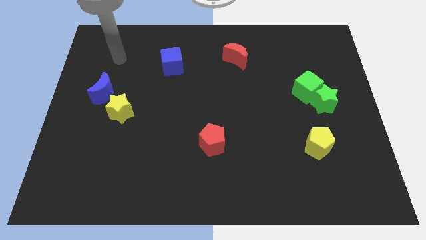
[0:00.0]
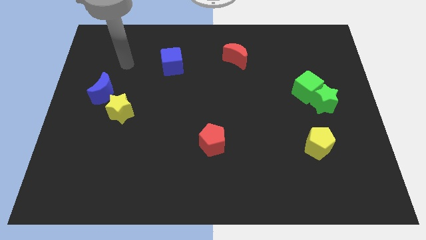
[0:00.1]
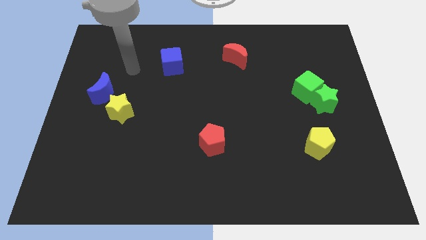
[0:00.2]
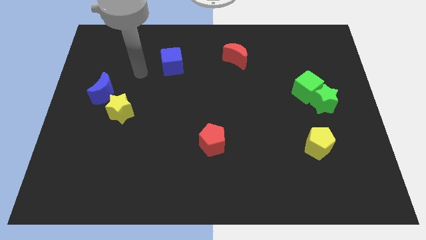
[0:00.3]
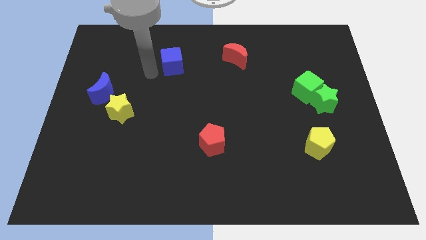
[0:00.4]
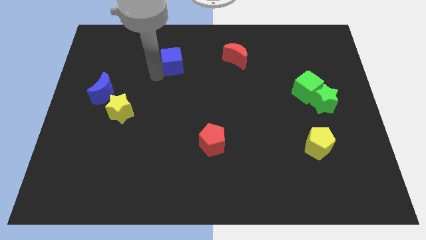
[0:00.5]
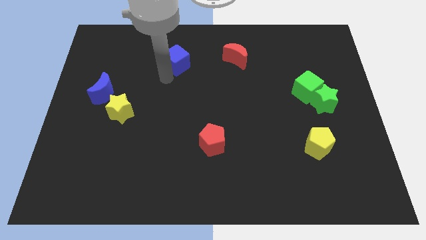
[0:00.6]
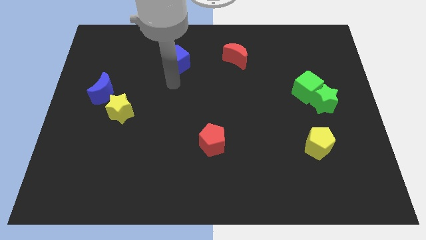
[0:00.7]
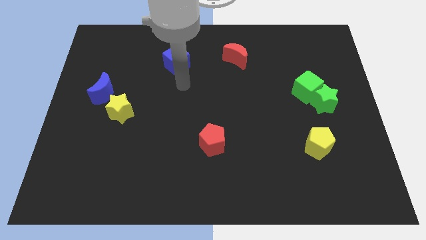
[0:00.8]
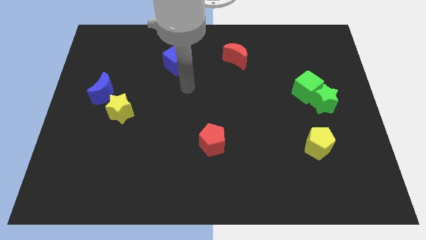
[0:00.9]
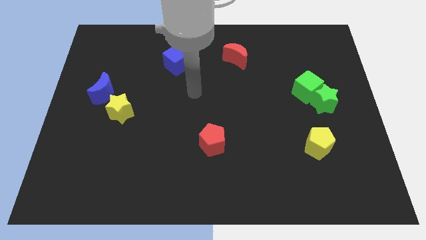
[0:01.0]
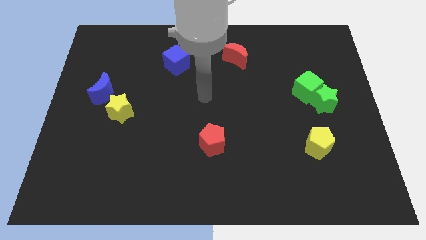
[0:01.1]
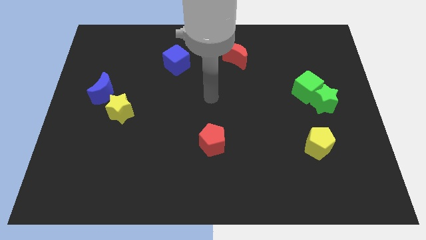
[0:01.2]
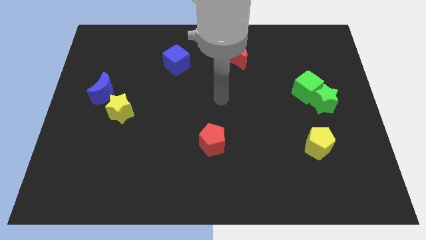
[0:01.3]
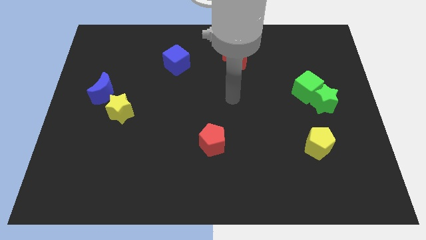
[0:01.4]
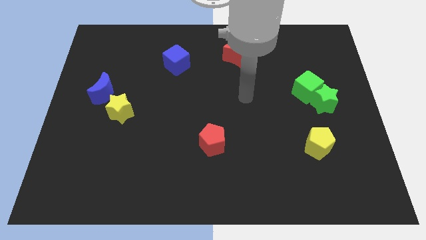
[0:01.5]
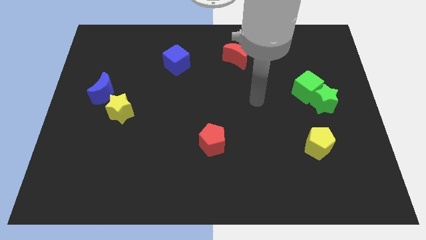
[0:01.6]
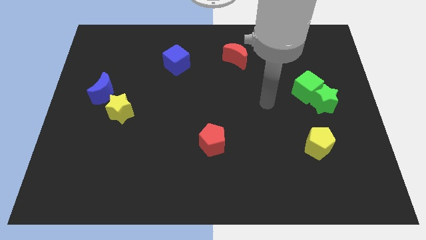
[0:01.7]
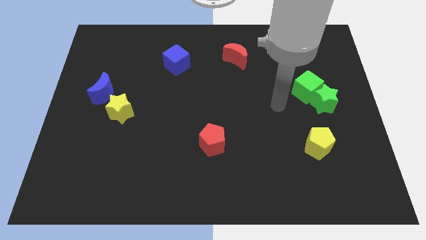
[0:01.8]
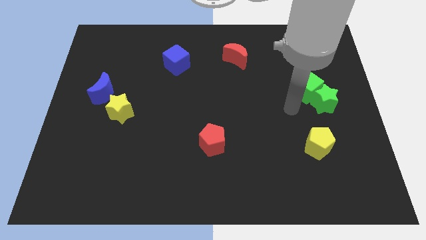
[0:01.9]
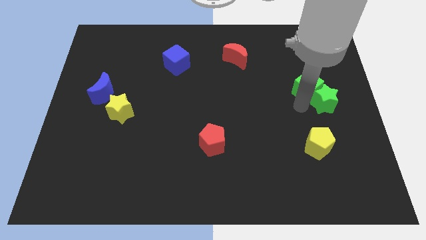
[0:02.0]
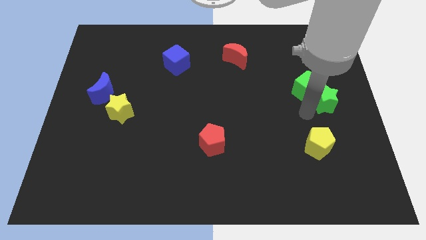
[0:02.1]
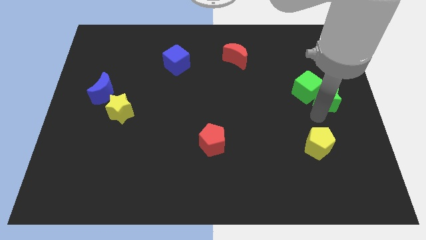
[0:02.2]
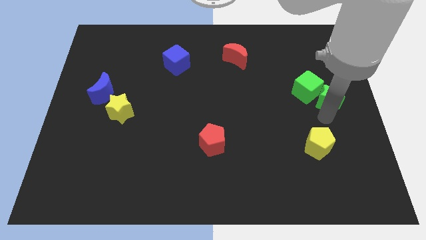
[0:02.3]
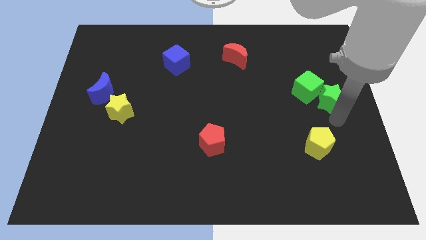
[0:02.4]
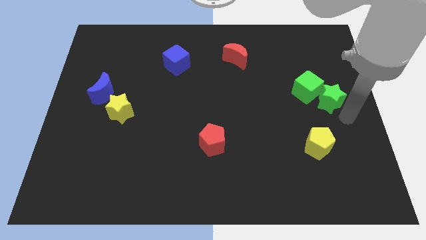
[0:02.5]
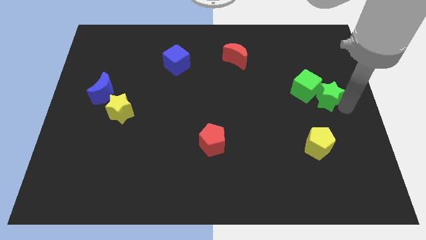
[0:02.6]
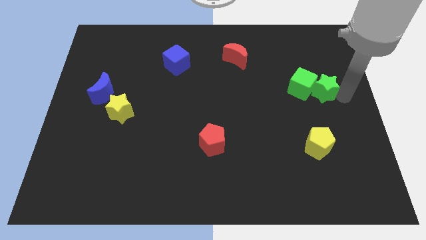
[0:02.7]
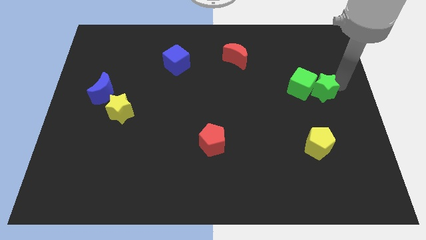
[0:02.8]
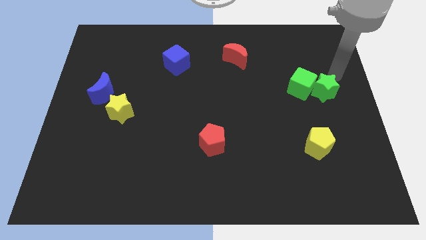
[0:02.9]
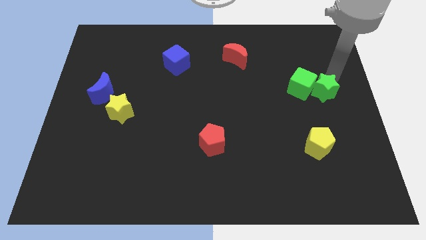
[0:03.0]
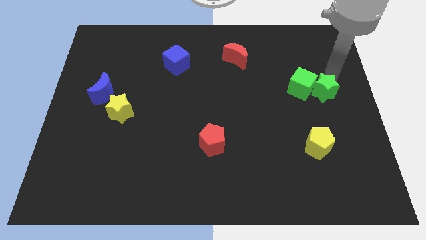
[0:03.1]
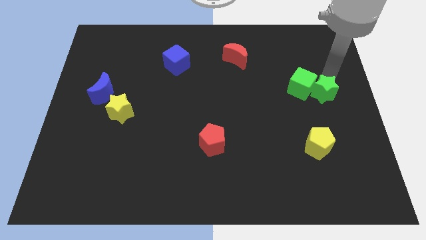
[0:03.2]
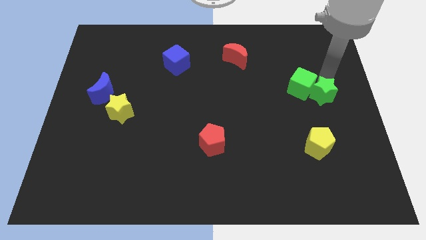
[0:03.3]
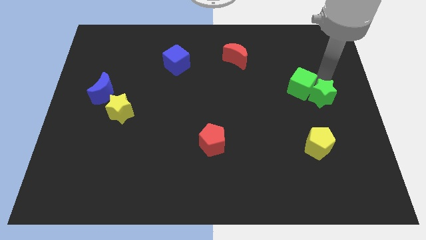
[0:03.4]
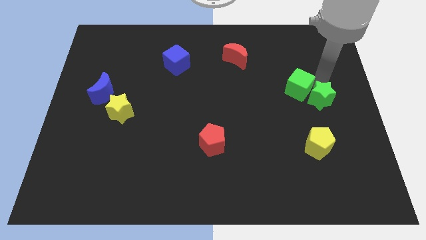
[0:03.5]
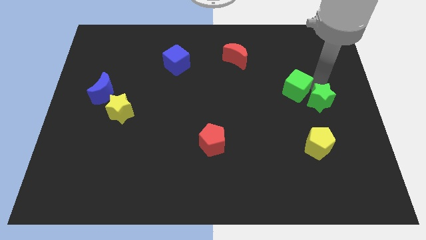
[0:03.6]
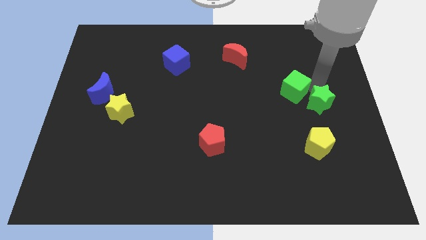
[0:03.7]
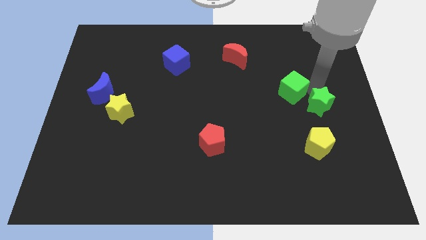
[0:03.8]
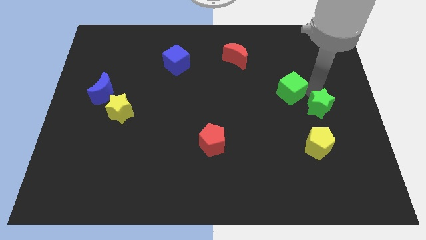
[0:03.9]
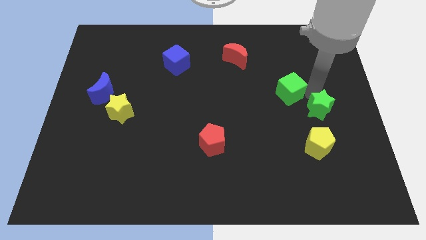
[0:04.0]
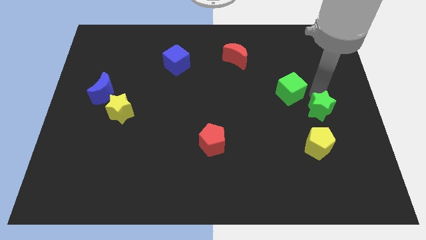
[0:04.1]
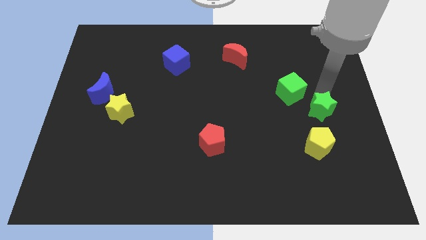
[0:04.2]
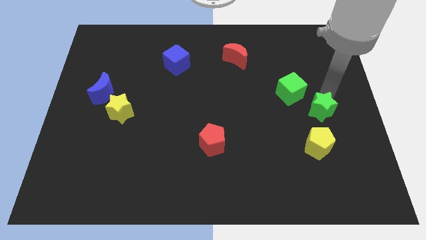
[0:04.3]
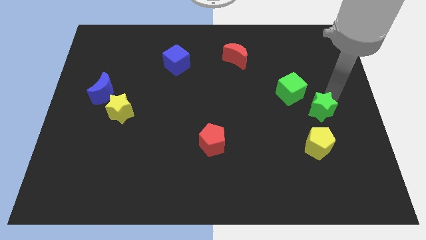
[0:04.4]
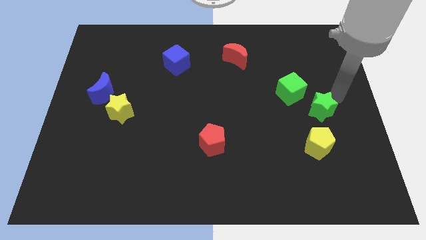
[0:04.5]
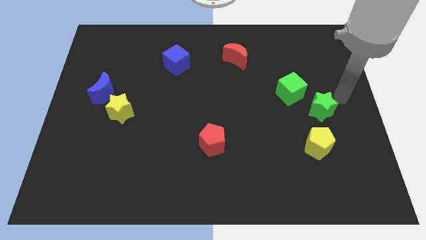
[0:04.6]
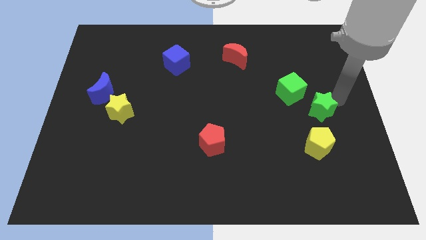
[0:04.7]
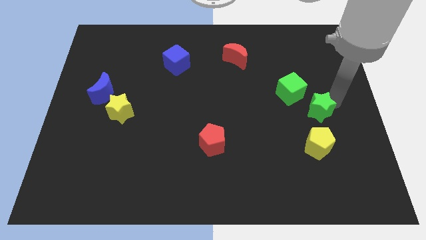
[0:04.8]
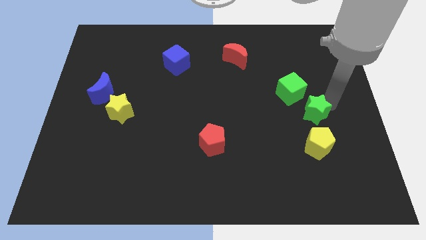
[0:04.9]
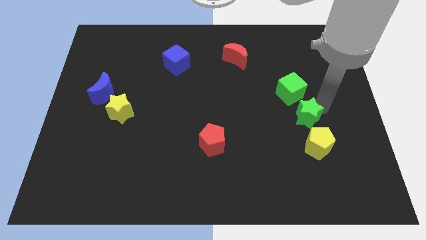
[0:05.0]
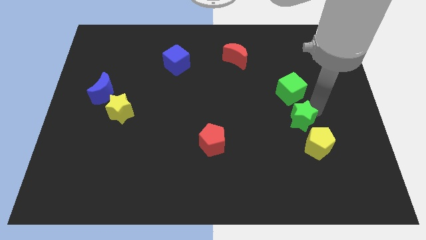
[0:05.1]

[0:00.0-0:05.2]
push the green star down and left somewhat

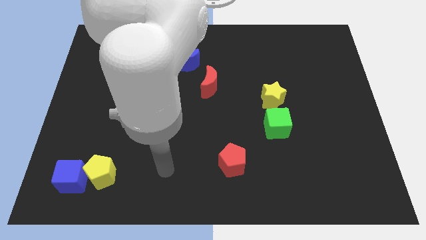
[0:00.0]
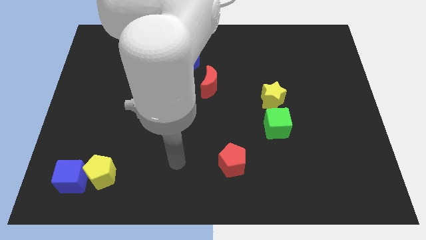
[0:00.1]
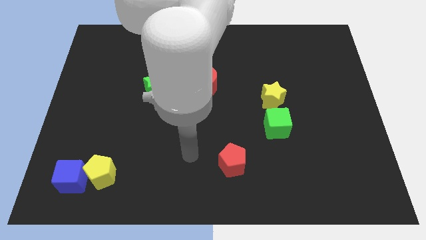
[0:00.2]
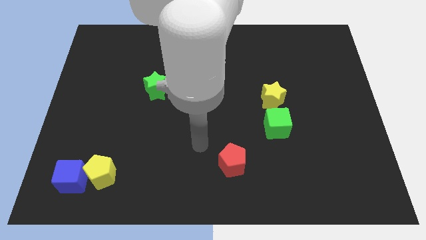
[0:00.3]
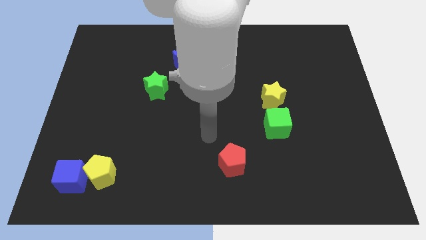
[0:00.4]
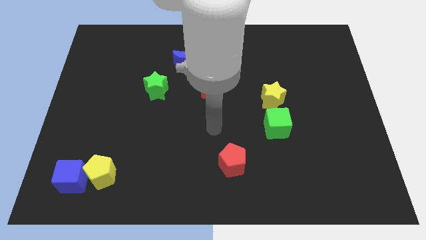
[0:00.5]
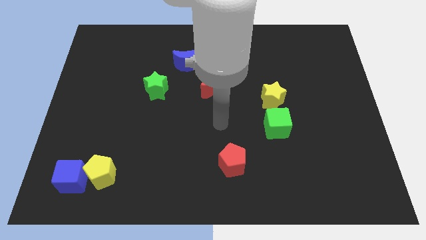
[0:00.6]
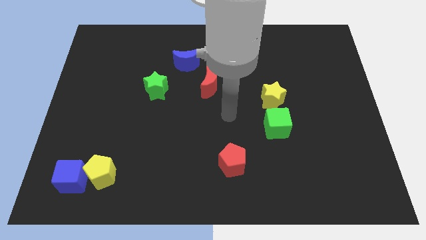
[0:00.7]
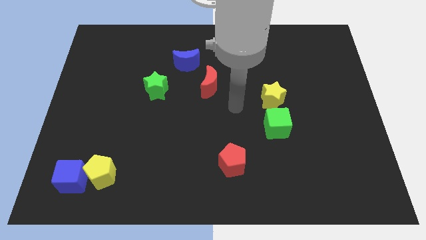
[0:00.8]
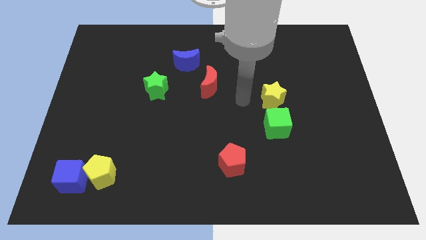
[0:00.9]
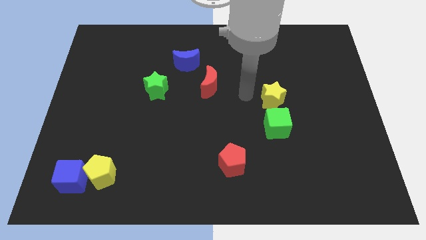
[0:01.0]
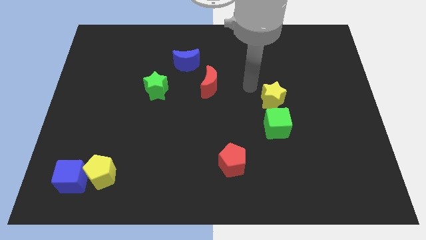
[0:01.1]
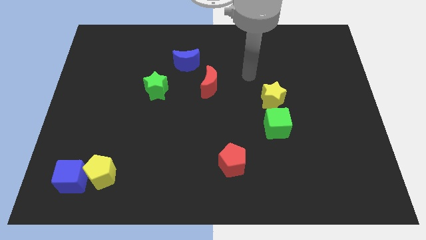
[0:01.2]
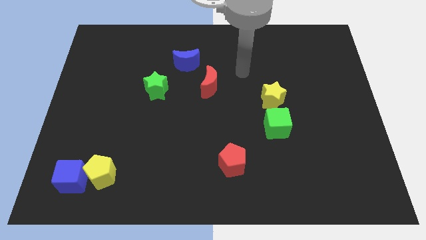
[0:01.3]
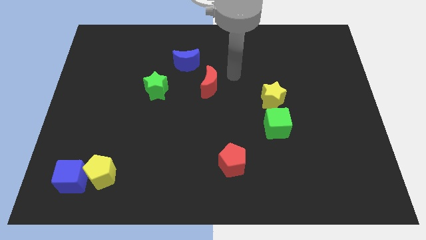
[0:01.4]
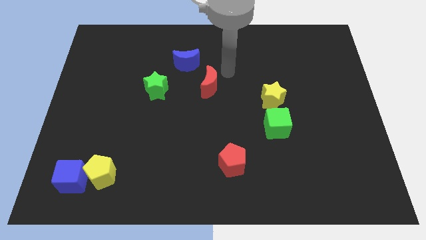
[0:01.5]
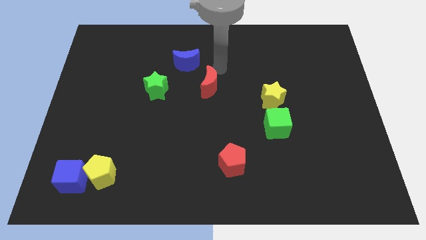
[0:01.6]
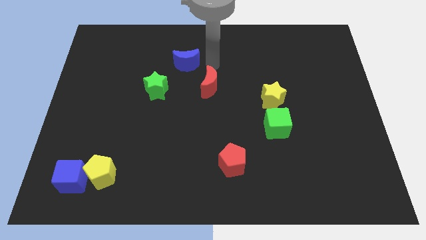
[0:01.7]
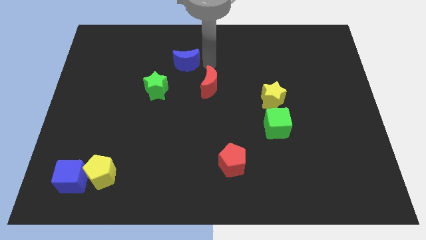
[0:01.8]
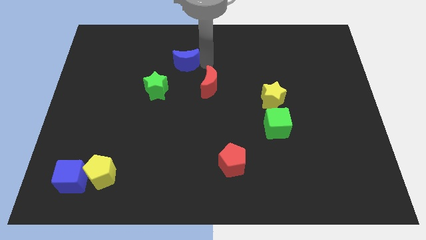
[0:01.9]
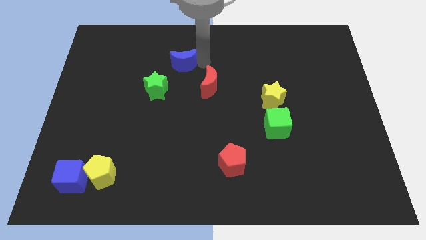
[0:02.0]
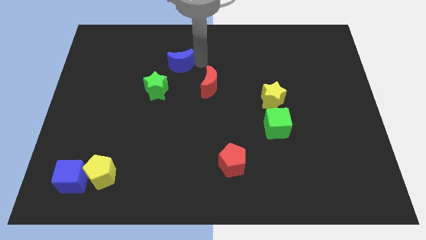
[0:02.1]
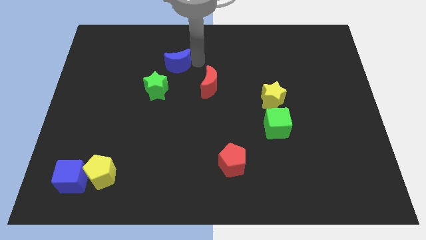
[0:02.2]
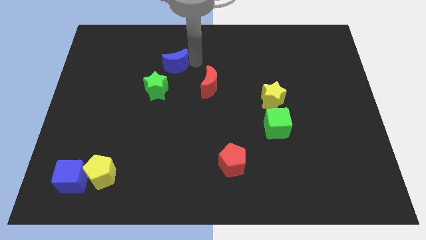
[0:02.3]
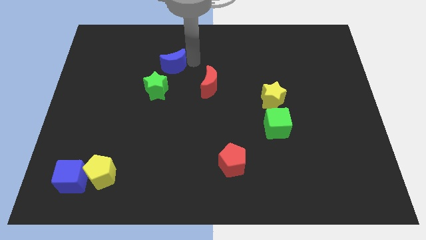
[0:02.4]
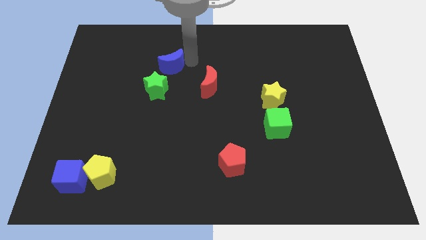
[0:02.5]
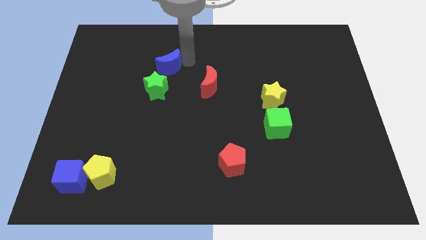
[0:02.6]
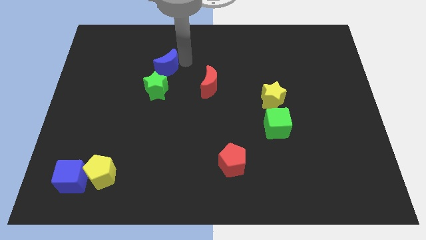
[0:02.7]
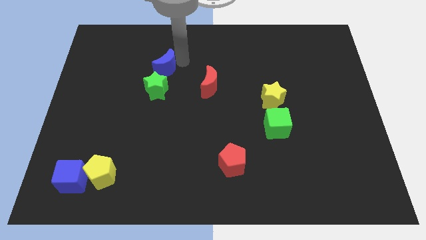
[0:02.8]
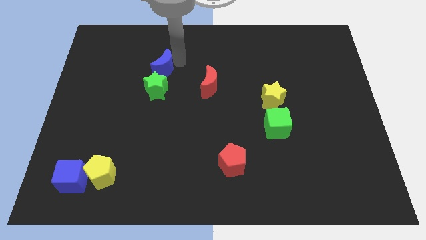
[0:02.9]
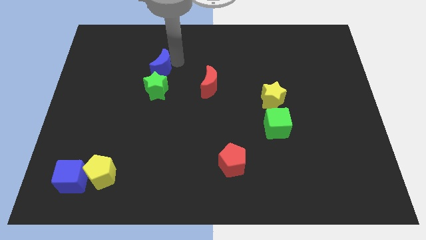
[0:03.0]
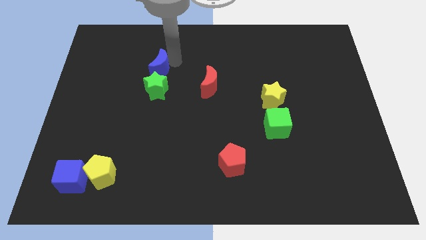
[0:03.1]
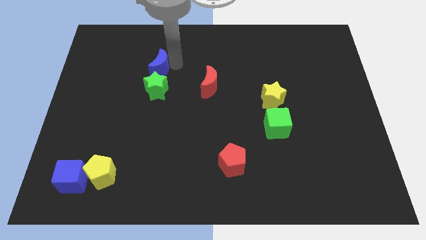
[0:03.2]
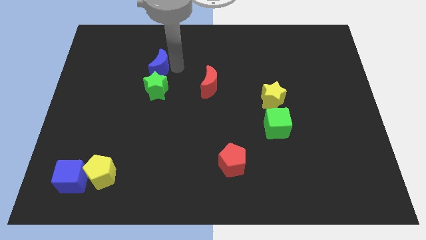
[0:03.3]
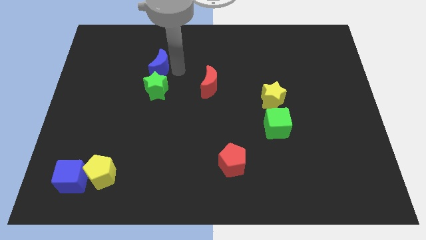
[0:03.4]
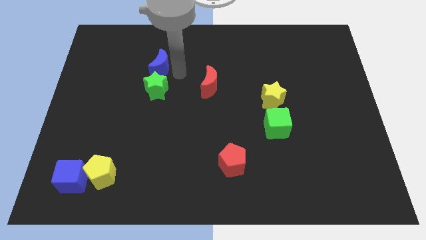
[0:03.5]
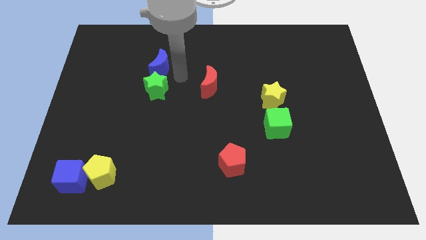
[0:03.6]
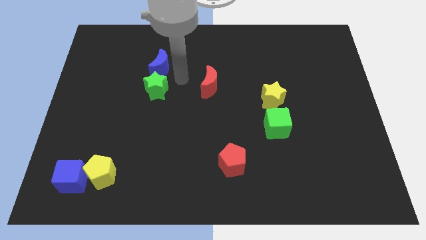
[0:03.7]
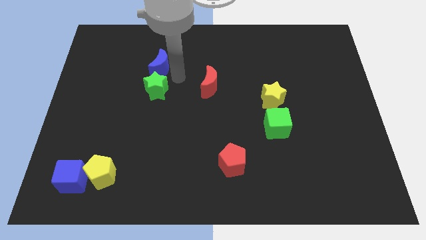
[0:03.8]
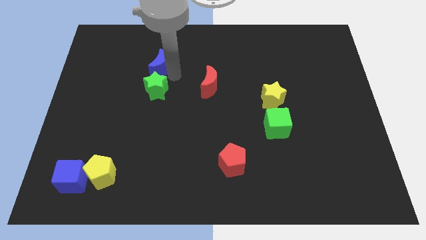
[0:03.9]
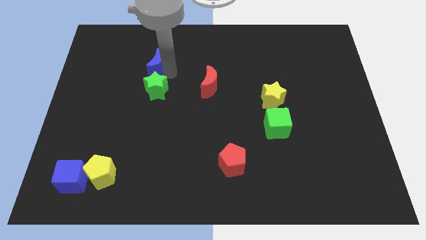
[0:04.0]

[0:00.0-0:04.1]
push the blue moon to the left somewhat
